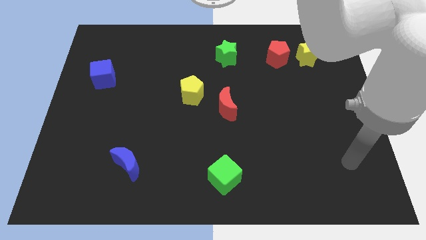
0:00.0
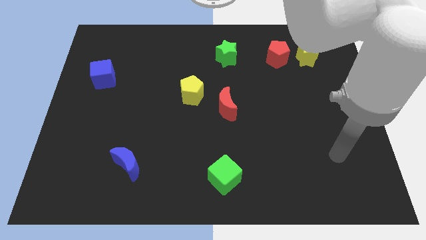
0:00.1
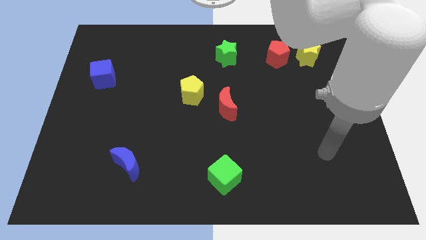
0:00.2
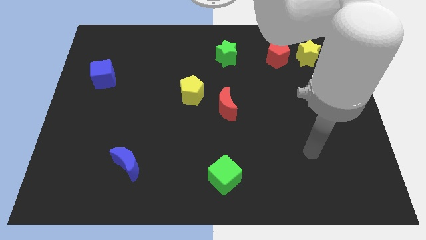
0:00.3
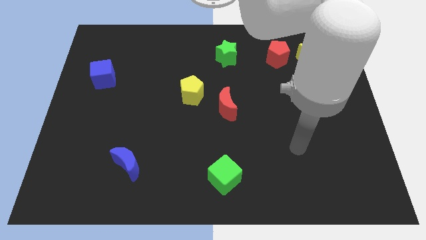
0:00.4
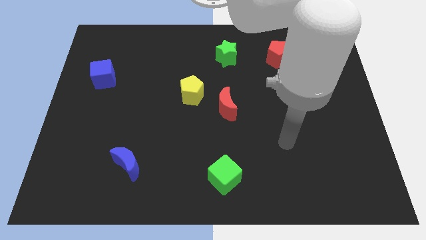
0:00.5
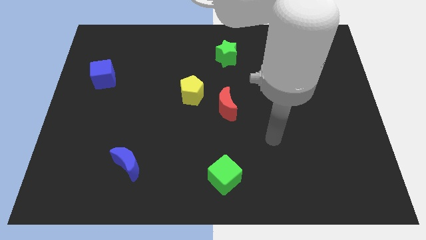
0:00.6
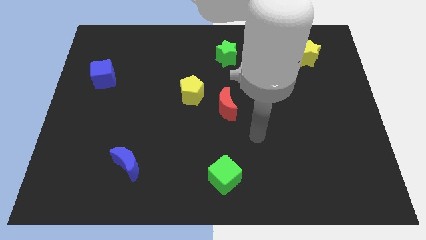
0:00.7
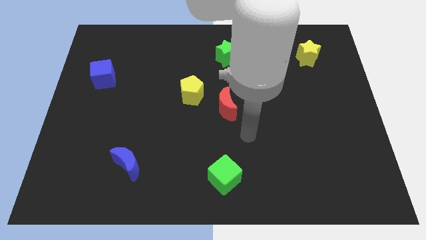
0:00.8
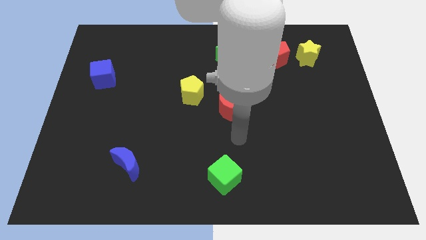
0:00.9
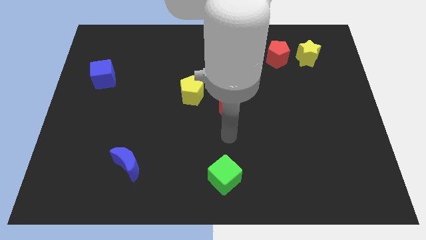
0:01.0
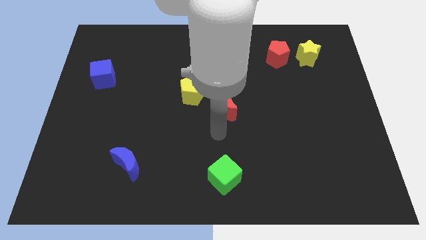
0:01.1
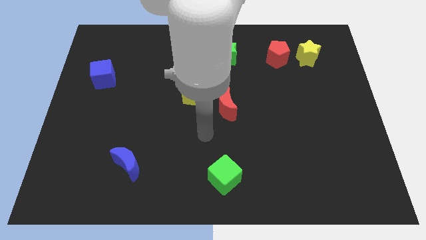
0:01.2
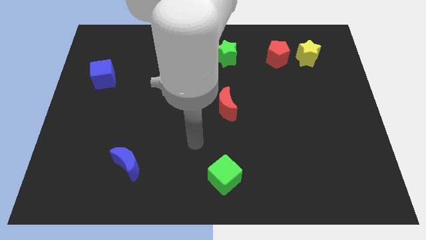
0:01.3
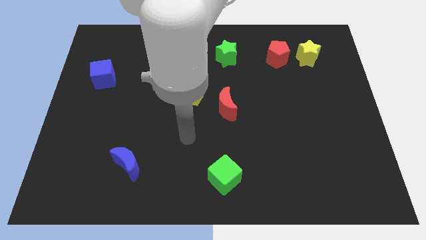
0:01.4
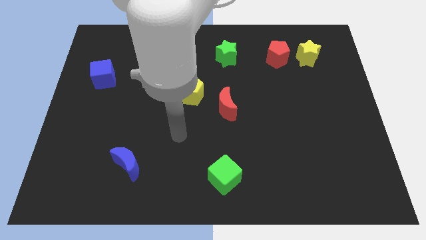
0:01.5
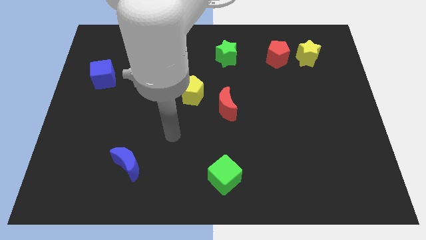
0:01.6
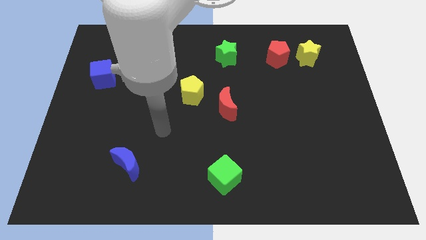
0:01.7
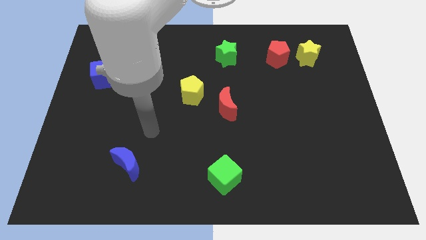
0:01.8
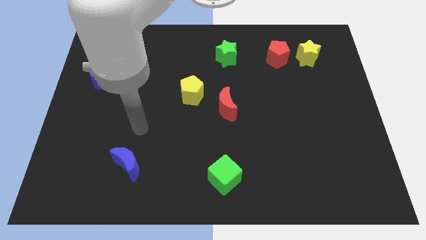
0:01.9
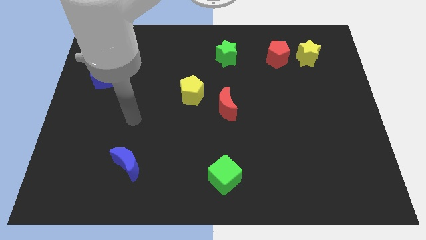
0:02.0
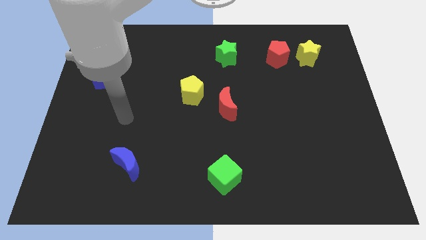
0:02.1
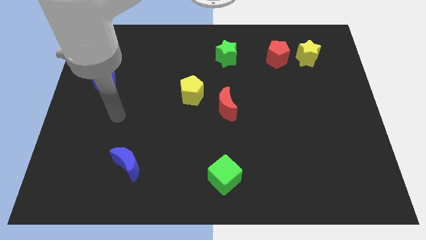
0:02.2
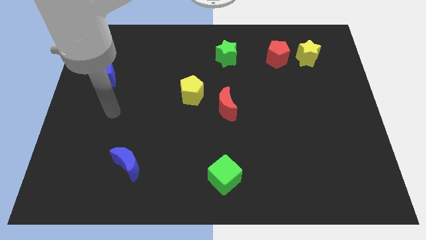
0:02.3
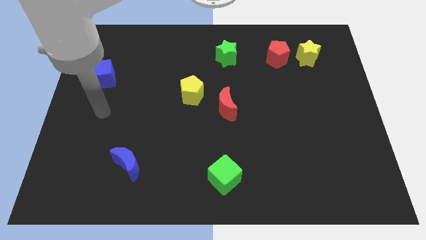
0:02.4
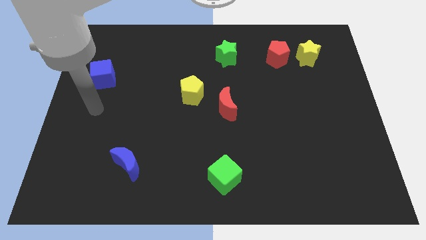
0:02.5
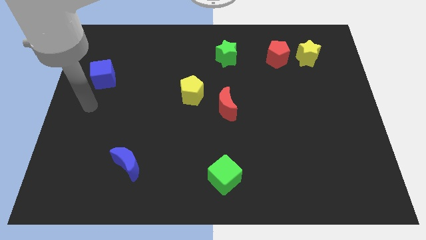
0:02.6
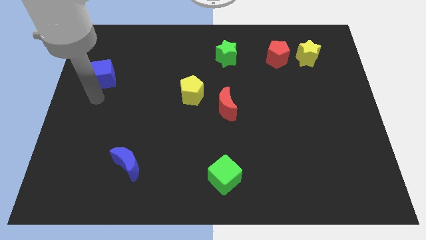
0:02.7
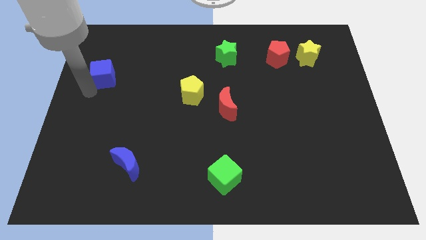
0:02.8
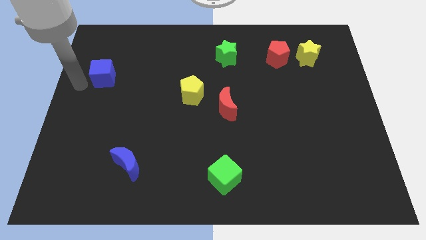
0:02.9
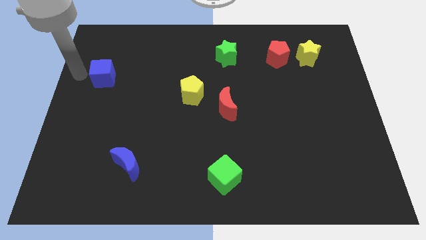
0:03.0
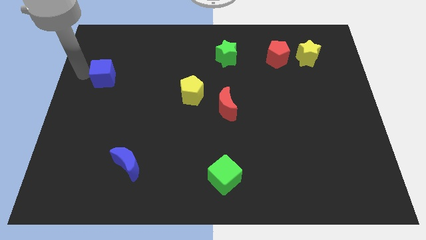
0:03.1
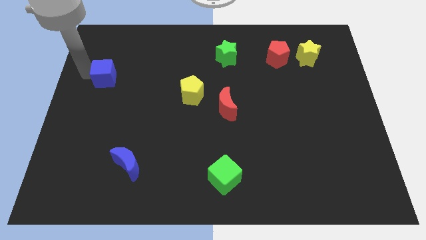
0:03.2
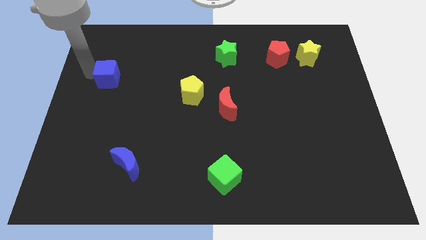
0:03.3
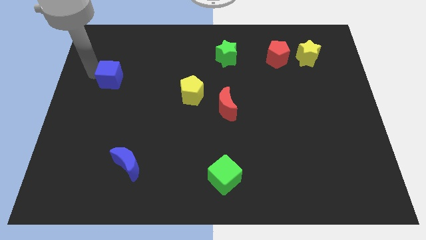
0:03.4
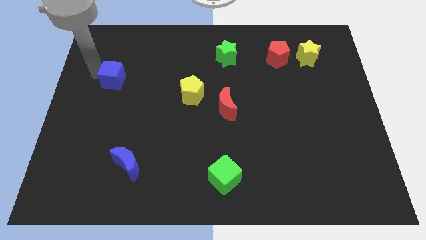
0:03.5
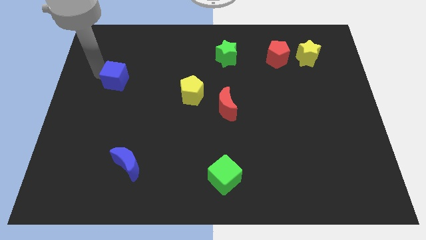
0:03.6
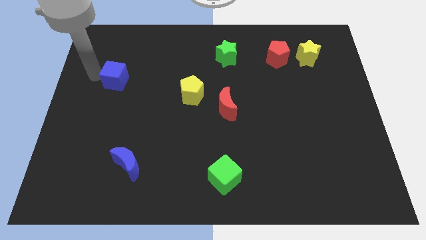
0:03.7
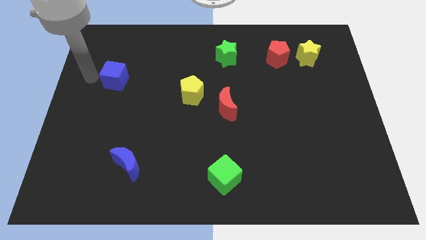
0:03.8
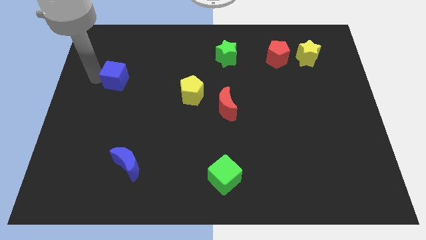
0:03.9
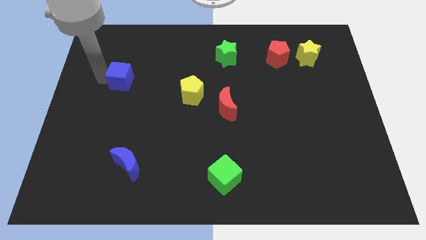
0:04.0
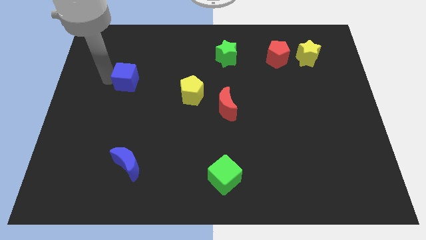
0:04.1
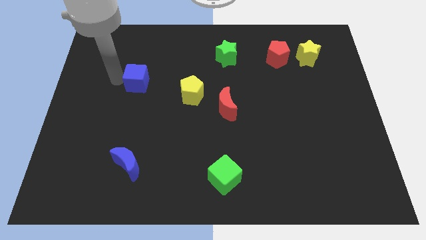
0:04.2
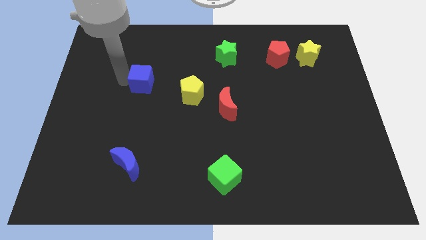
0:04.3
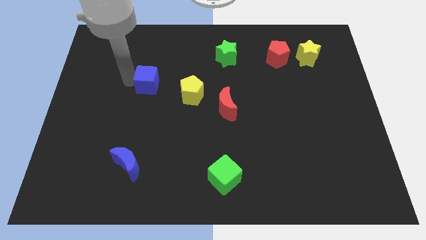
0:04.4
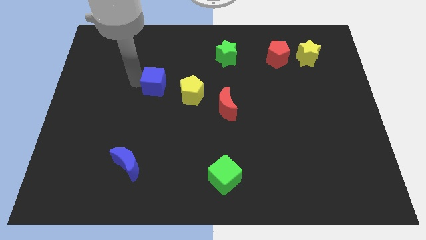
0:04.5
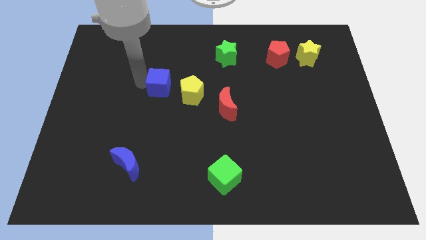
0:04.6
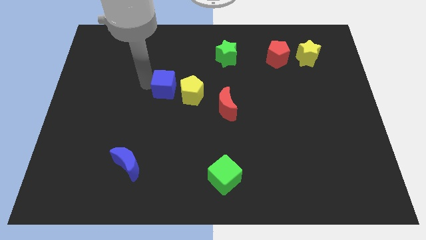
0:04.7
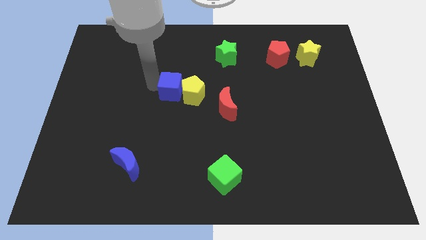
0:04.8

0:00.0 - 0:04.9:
slide the blue cube towards the yellow pentagon

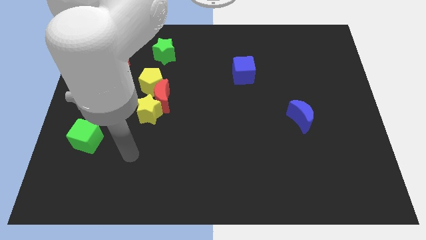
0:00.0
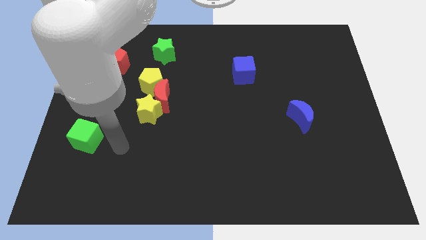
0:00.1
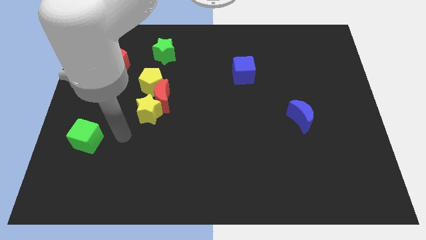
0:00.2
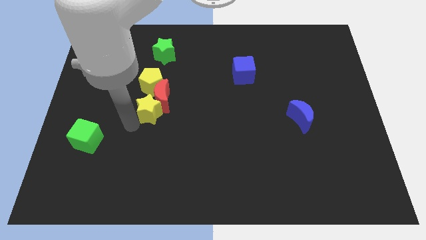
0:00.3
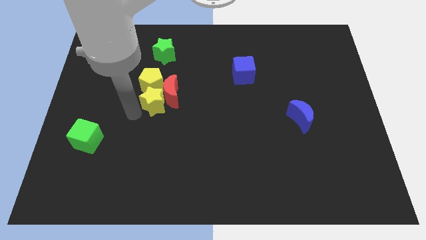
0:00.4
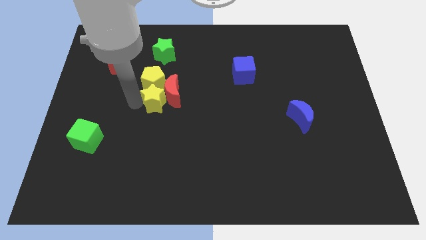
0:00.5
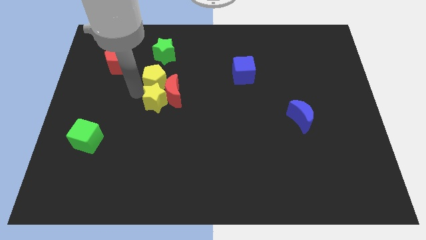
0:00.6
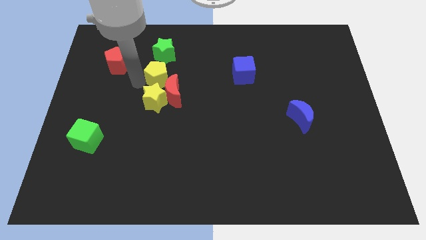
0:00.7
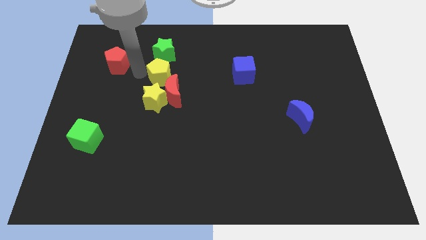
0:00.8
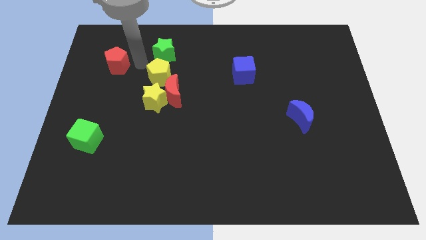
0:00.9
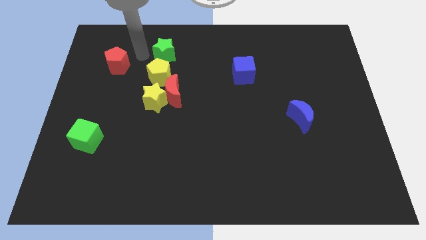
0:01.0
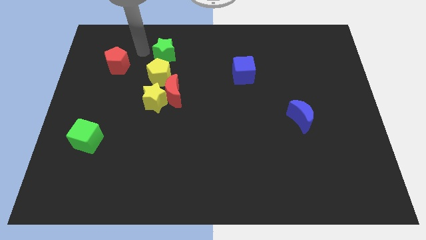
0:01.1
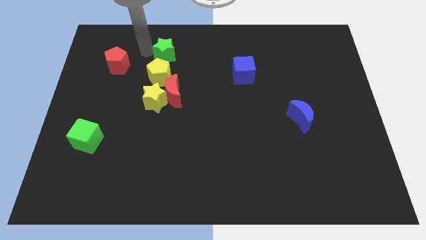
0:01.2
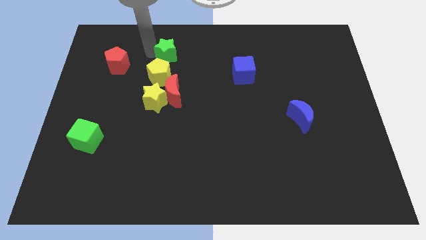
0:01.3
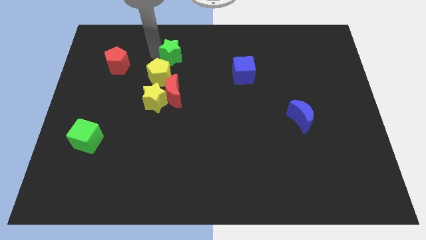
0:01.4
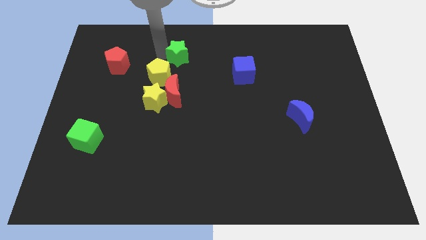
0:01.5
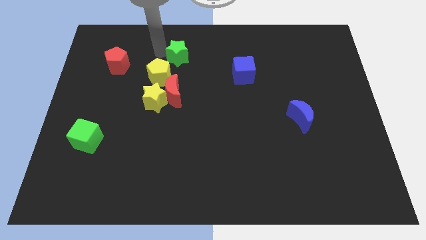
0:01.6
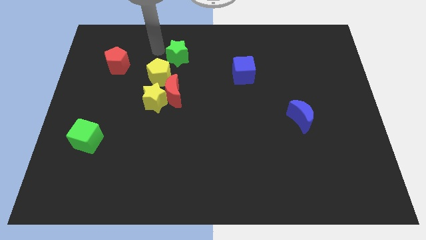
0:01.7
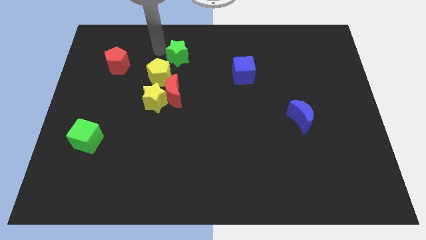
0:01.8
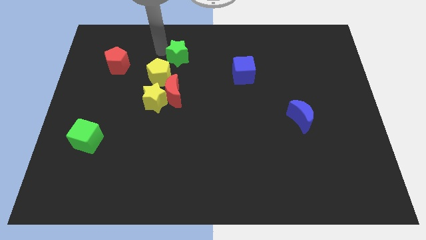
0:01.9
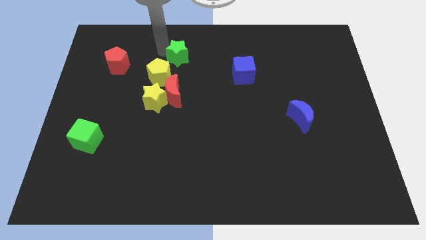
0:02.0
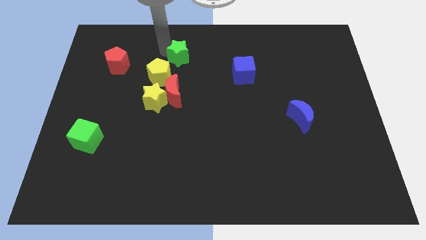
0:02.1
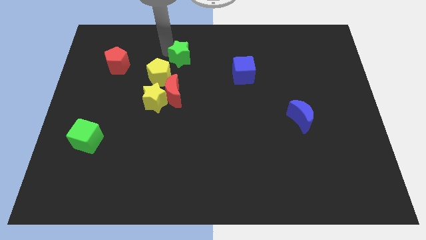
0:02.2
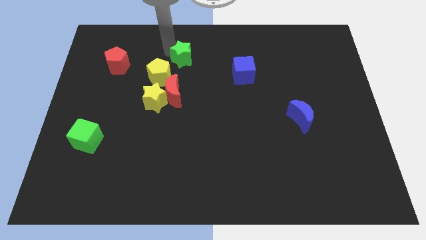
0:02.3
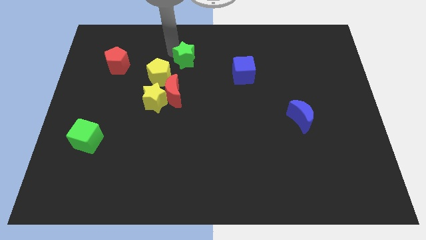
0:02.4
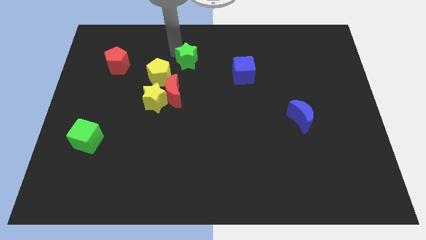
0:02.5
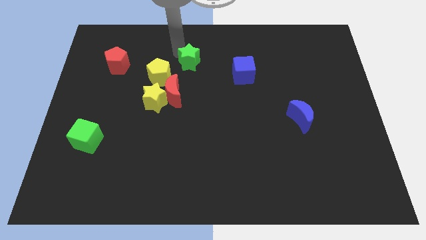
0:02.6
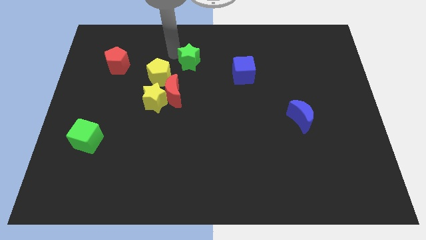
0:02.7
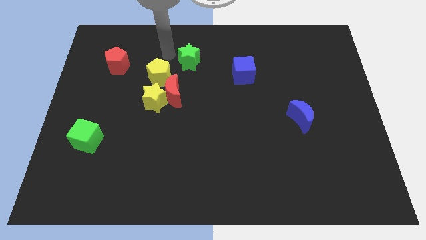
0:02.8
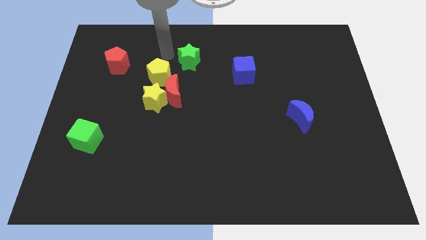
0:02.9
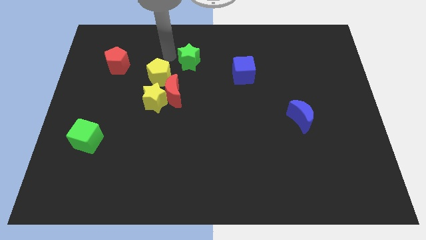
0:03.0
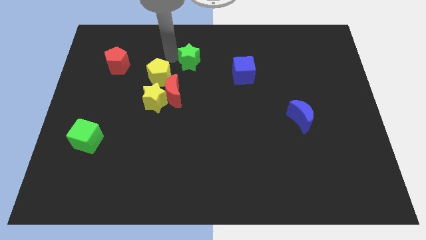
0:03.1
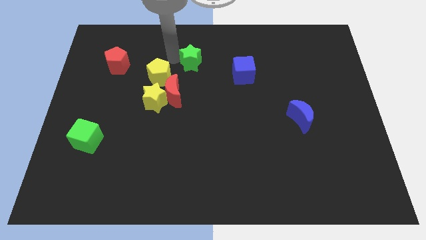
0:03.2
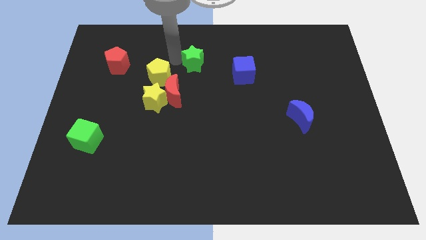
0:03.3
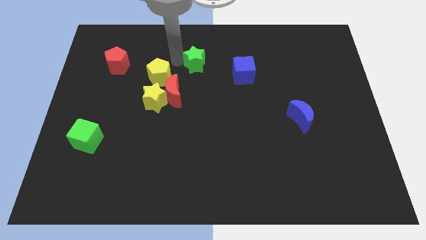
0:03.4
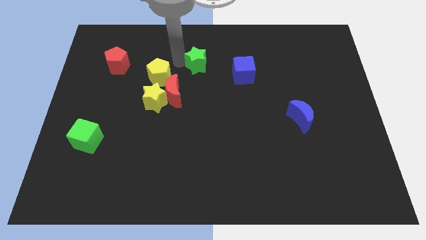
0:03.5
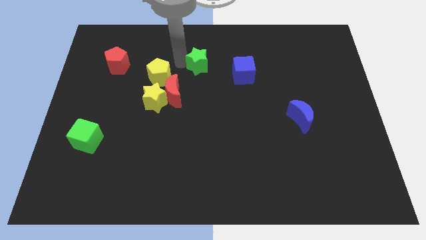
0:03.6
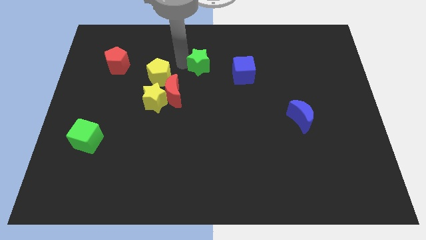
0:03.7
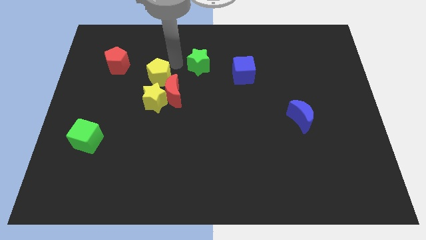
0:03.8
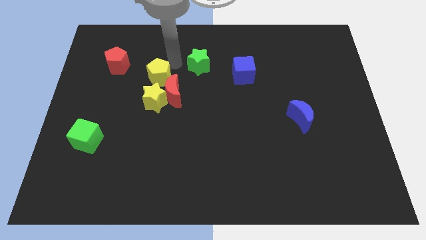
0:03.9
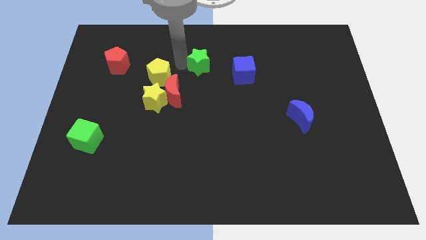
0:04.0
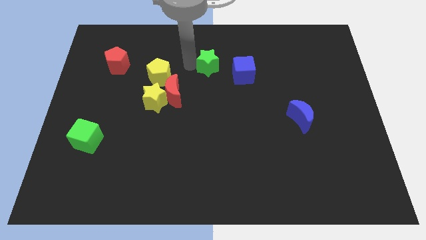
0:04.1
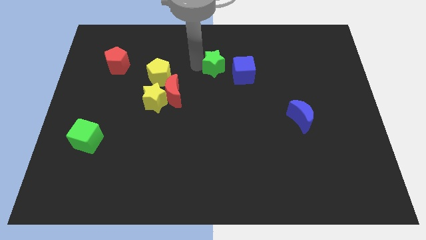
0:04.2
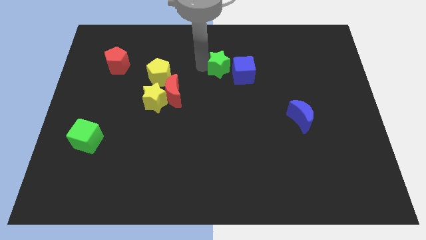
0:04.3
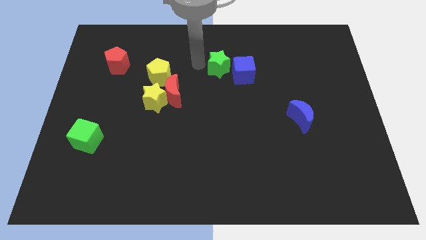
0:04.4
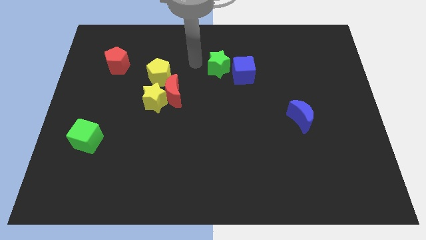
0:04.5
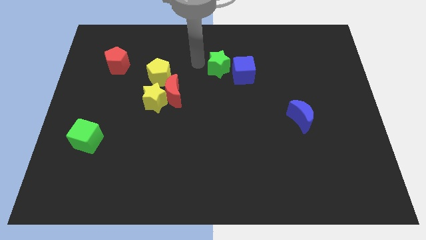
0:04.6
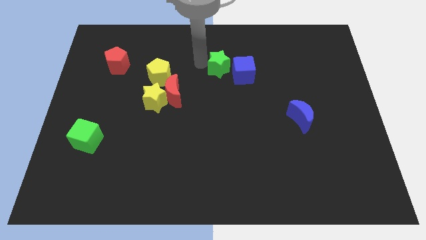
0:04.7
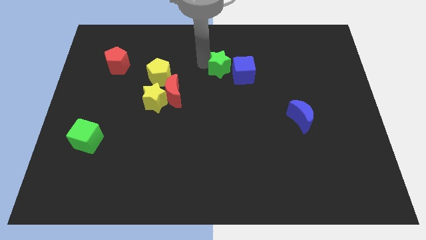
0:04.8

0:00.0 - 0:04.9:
slide the green star close to the blue cube
